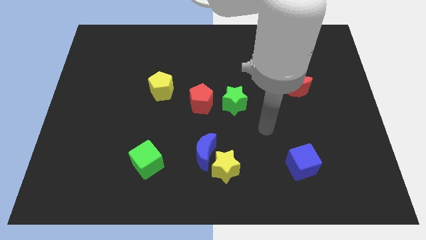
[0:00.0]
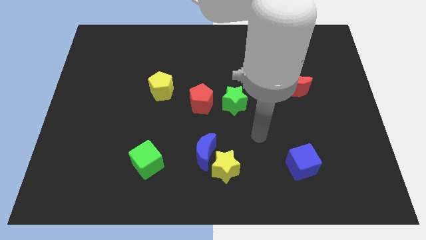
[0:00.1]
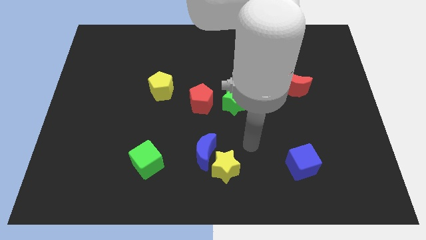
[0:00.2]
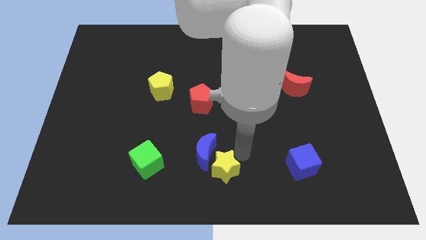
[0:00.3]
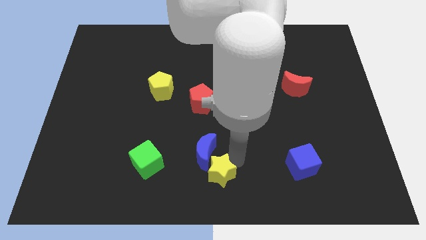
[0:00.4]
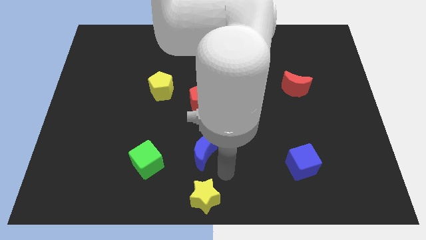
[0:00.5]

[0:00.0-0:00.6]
pull the blue moon apart from the yellow star

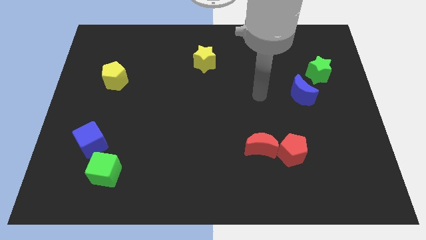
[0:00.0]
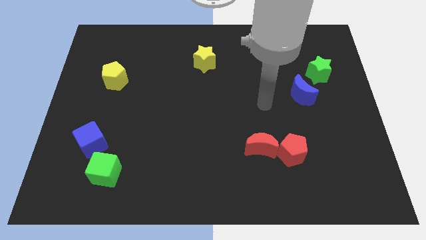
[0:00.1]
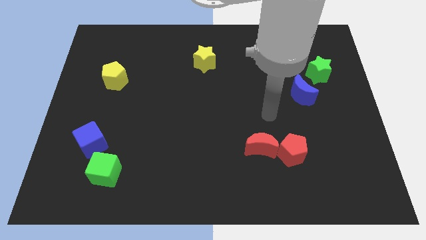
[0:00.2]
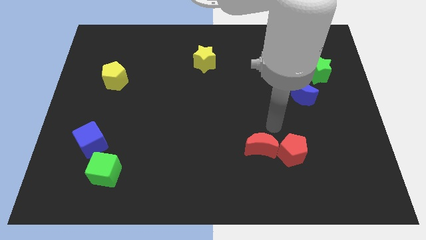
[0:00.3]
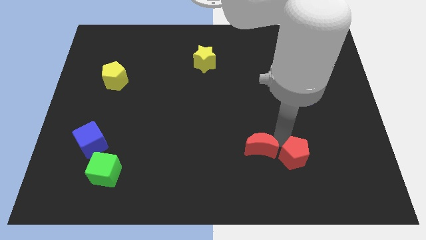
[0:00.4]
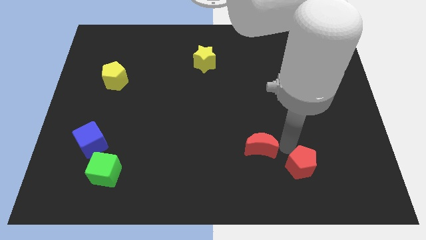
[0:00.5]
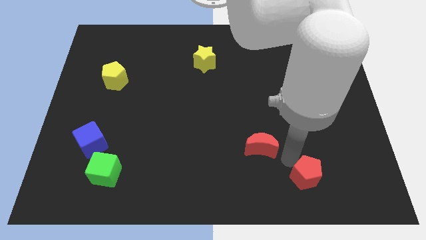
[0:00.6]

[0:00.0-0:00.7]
separate the red moon from the red pentagon

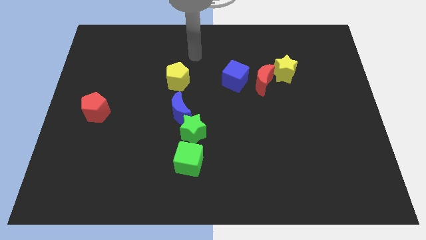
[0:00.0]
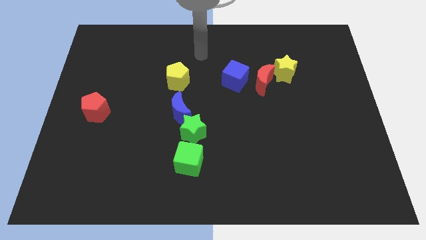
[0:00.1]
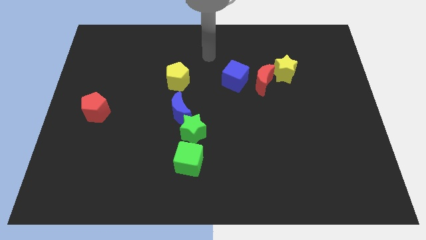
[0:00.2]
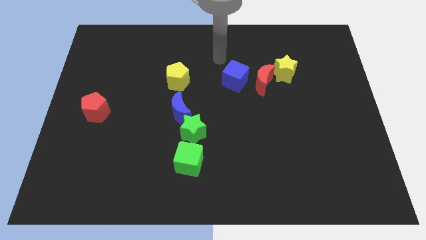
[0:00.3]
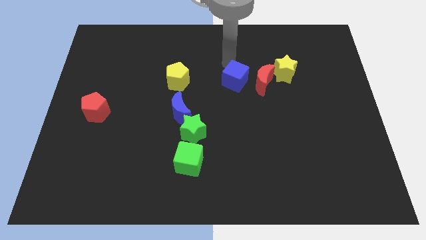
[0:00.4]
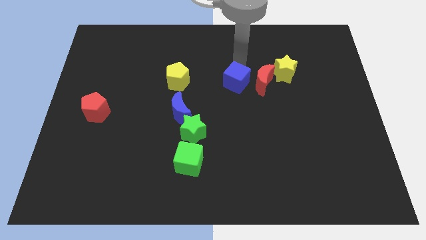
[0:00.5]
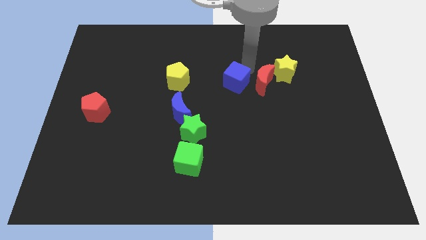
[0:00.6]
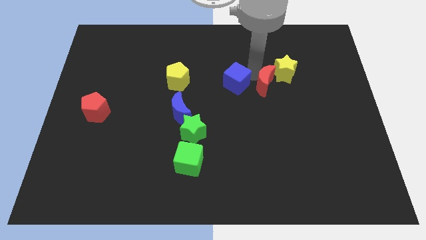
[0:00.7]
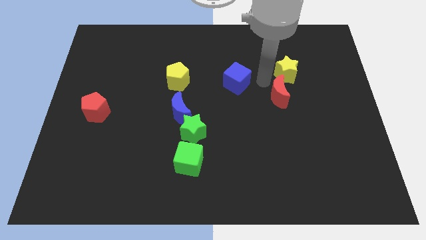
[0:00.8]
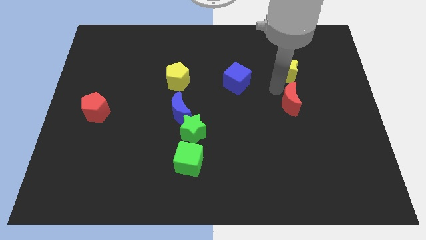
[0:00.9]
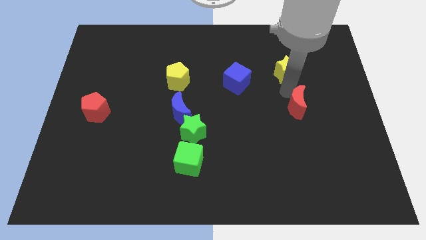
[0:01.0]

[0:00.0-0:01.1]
pull the yellow star apart from the red moon

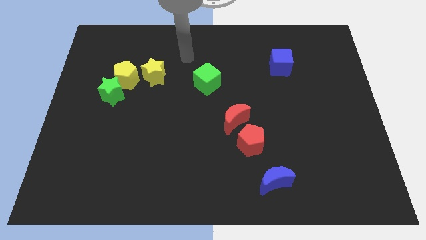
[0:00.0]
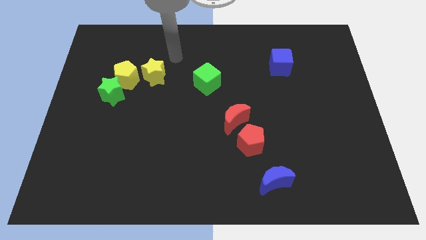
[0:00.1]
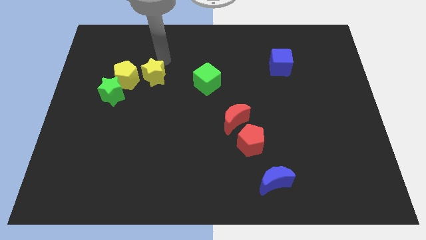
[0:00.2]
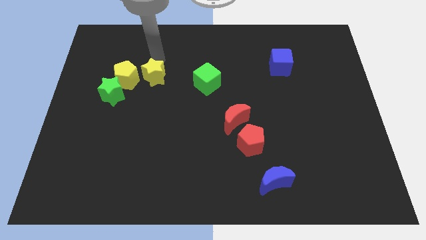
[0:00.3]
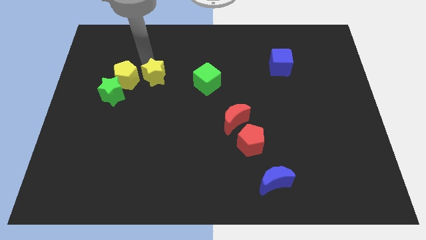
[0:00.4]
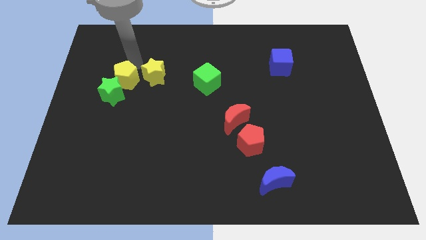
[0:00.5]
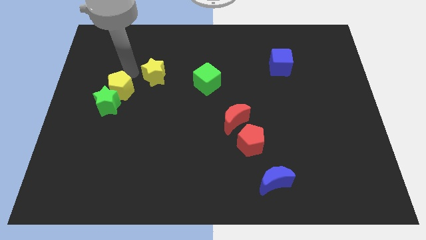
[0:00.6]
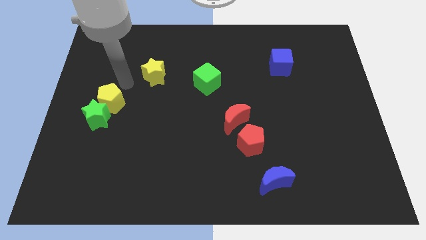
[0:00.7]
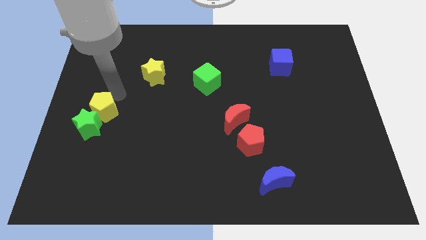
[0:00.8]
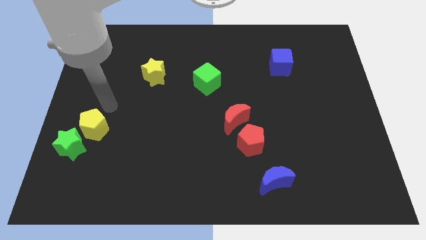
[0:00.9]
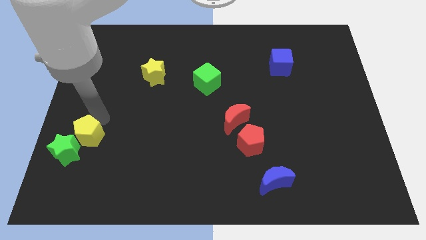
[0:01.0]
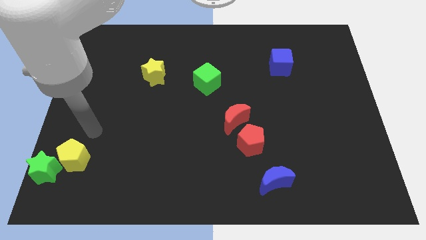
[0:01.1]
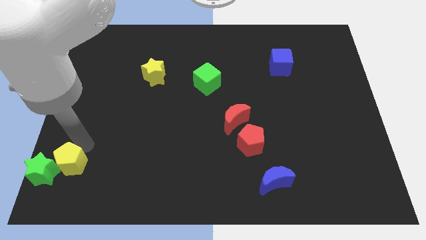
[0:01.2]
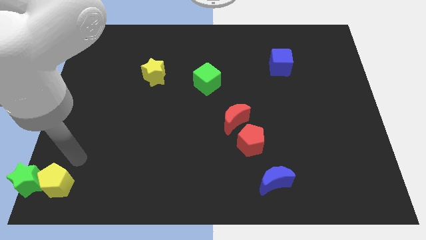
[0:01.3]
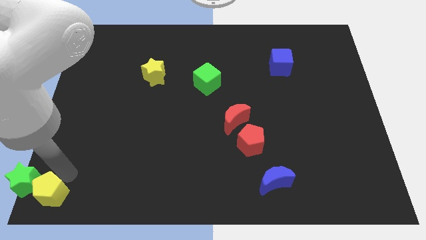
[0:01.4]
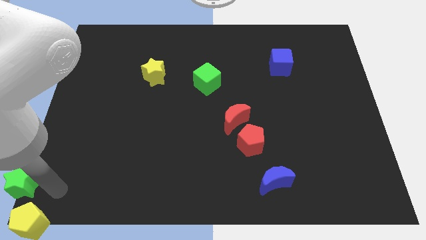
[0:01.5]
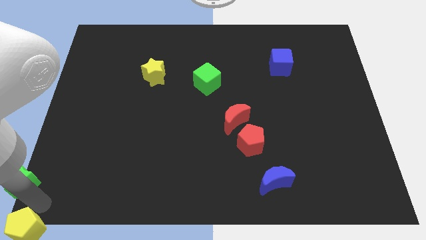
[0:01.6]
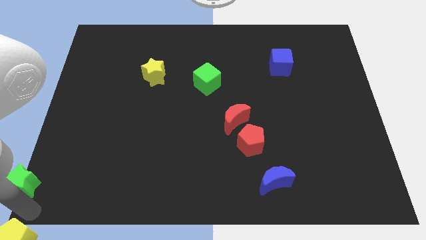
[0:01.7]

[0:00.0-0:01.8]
separate the green star from the yellow pentagon

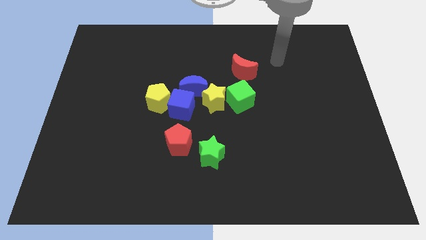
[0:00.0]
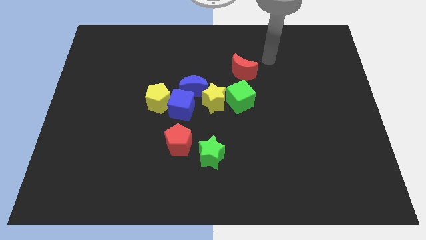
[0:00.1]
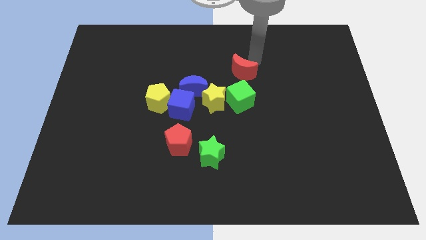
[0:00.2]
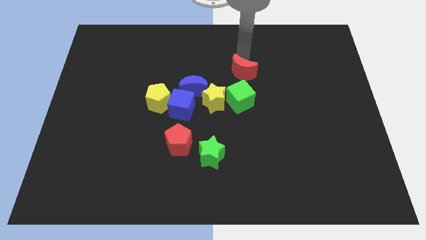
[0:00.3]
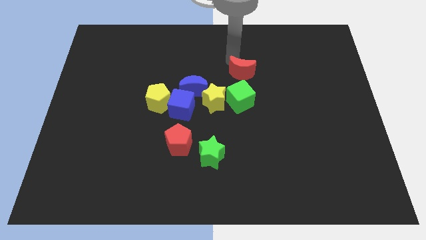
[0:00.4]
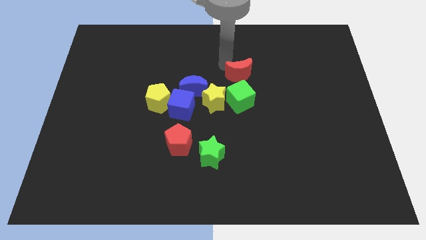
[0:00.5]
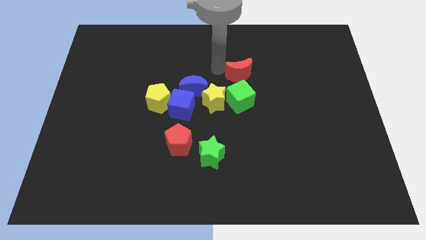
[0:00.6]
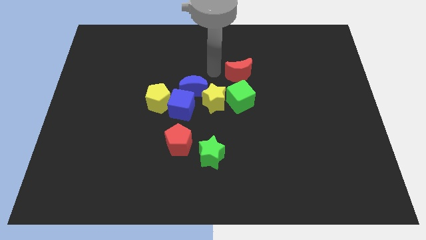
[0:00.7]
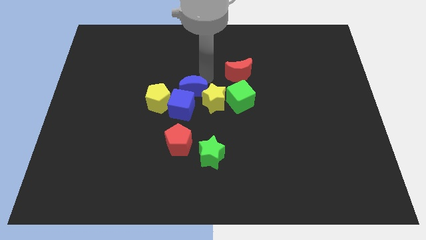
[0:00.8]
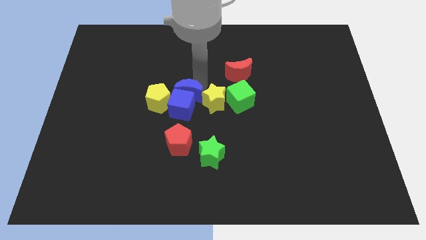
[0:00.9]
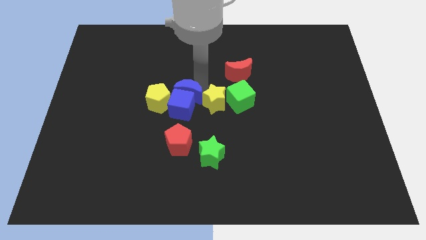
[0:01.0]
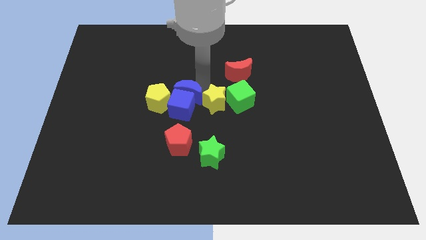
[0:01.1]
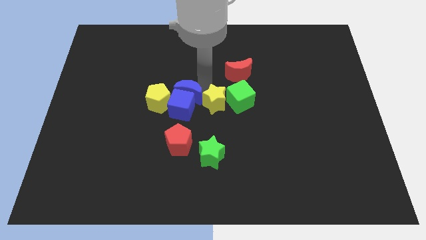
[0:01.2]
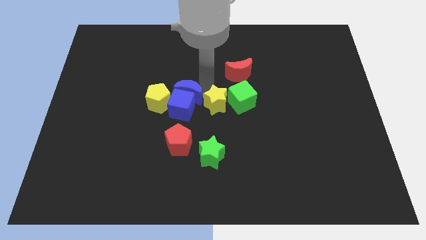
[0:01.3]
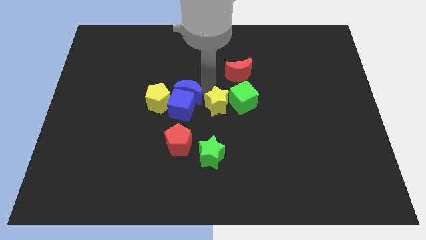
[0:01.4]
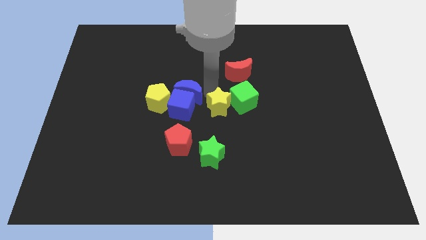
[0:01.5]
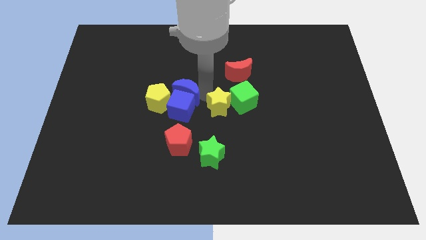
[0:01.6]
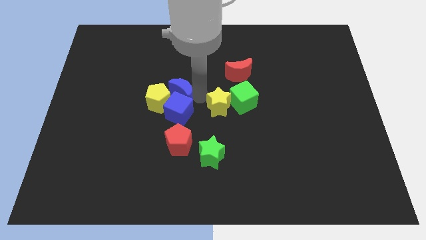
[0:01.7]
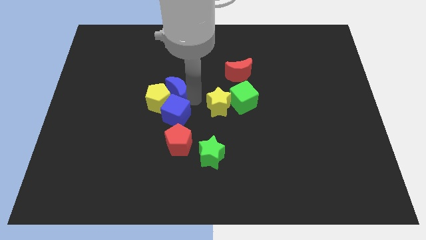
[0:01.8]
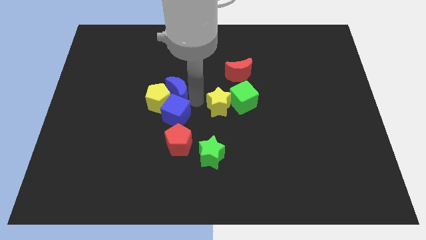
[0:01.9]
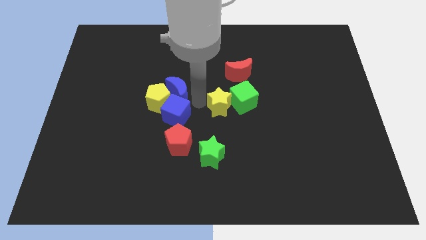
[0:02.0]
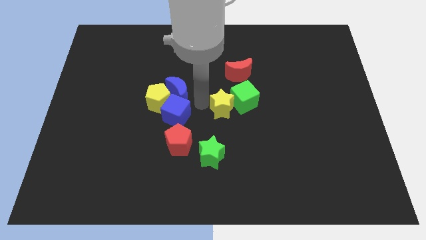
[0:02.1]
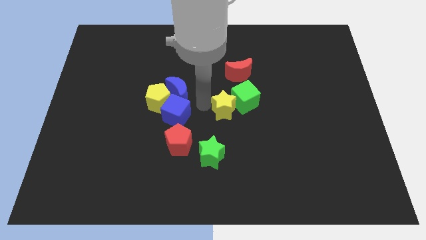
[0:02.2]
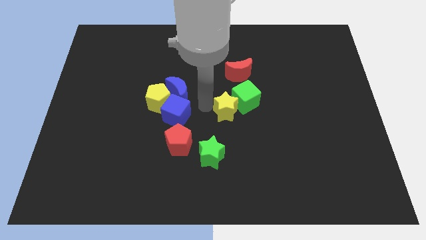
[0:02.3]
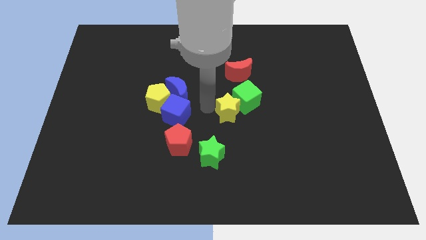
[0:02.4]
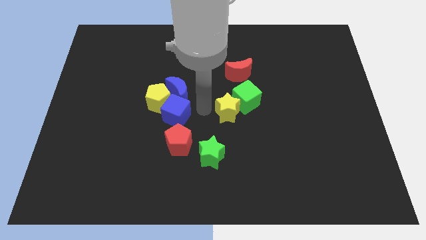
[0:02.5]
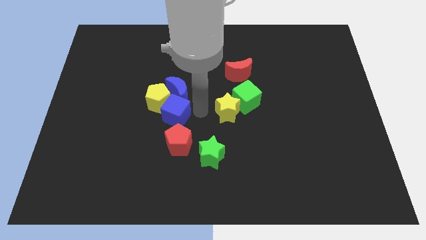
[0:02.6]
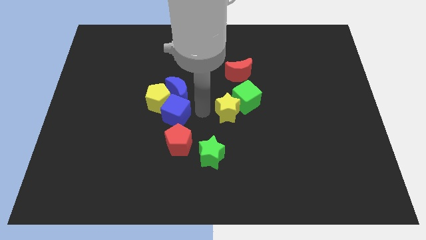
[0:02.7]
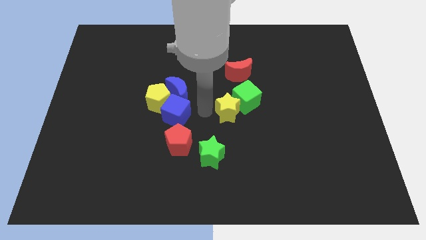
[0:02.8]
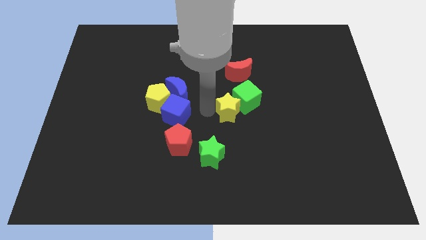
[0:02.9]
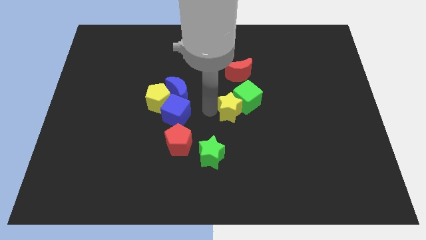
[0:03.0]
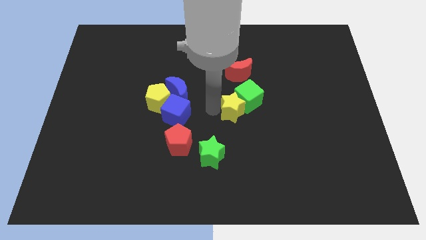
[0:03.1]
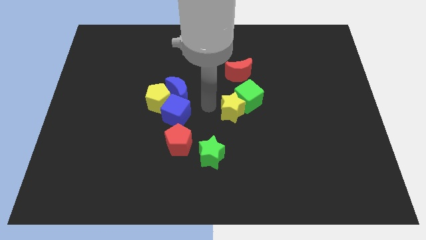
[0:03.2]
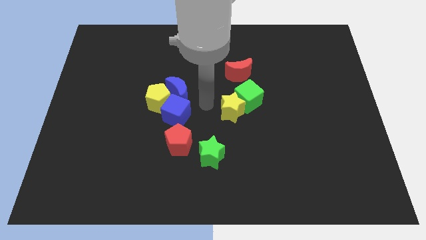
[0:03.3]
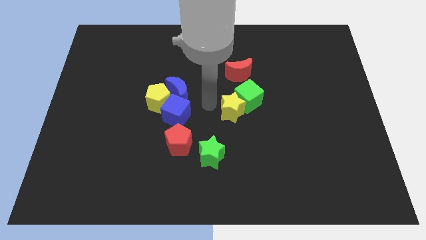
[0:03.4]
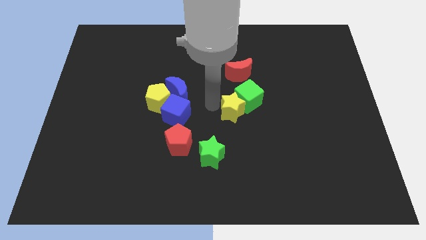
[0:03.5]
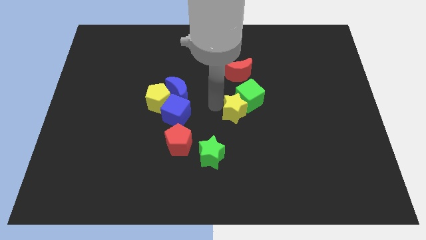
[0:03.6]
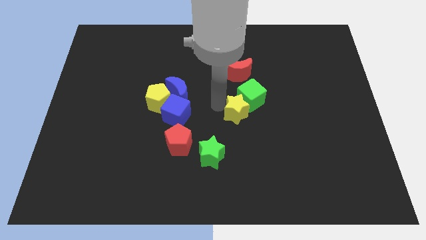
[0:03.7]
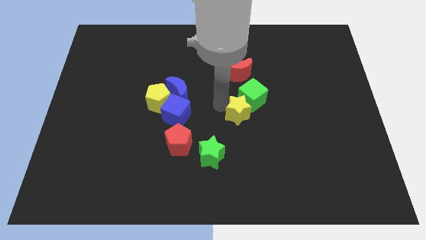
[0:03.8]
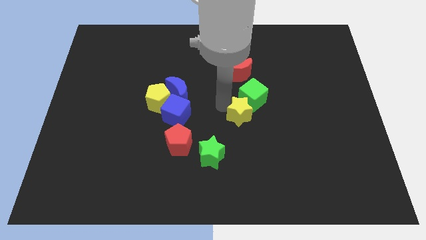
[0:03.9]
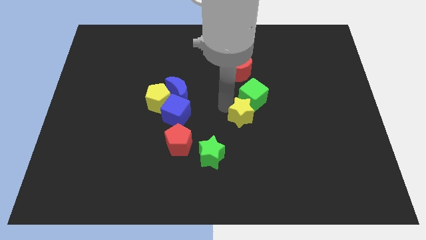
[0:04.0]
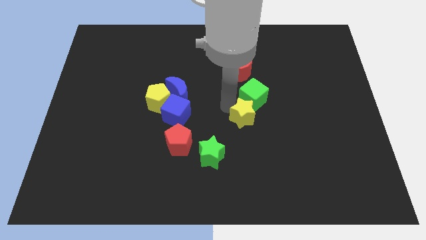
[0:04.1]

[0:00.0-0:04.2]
pull the yellow star apart from the green cube, blue moon, and blue cube

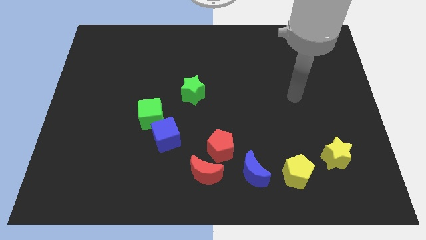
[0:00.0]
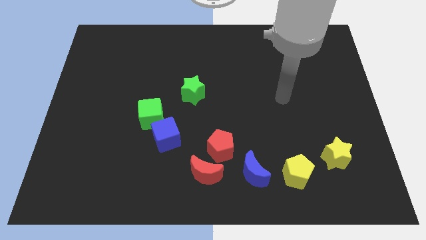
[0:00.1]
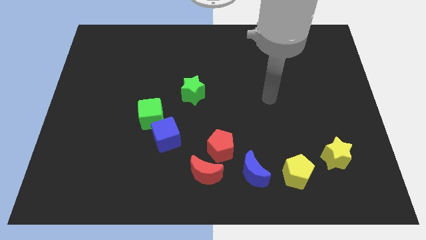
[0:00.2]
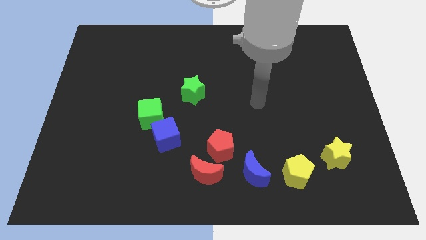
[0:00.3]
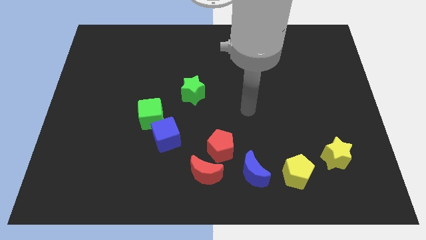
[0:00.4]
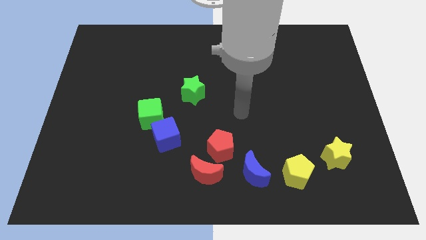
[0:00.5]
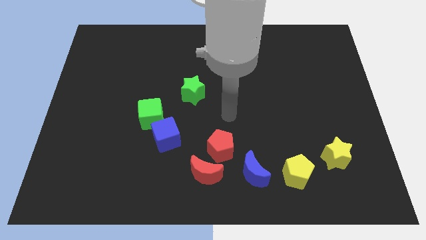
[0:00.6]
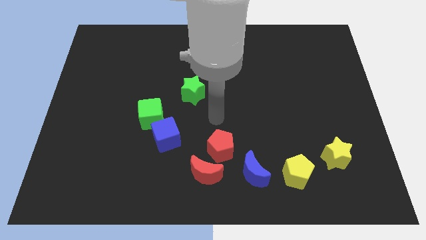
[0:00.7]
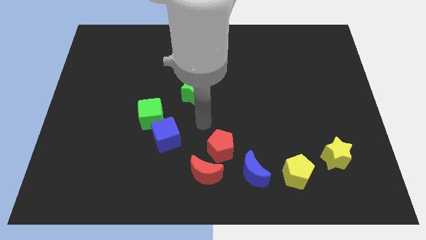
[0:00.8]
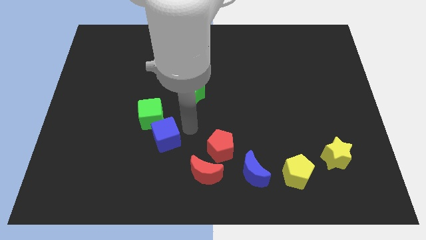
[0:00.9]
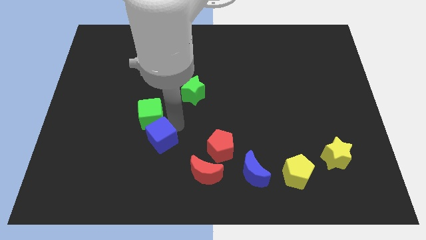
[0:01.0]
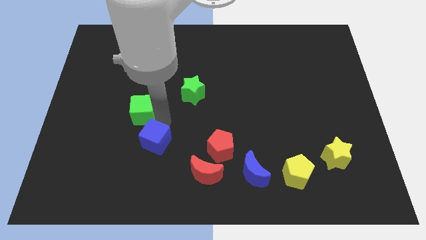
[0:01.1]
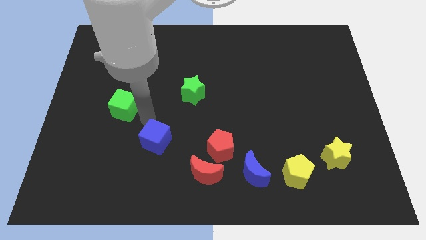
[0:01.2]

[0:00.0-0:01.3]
separate the blue cube from the green cube
